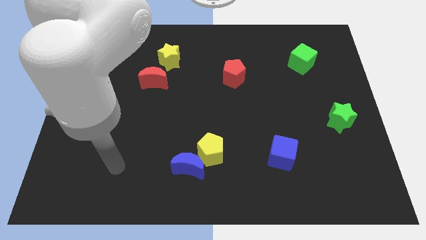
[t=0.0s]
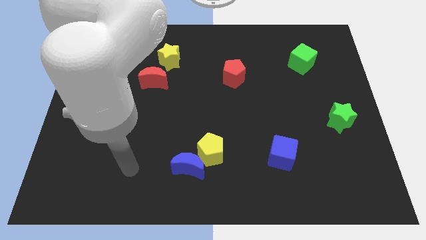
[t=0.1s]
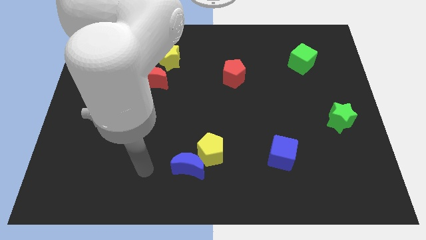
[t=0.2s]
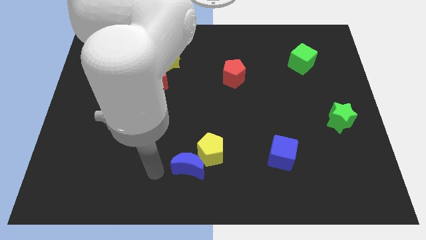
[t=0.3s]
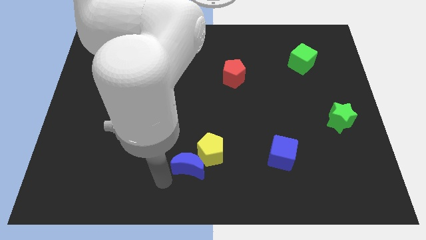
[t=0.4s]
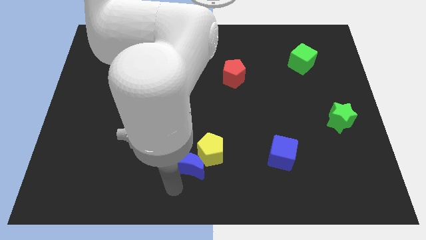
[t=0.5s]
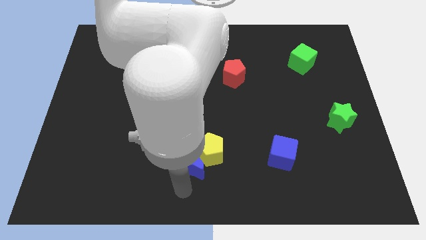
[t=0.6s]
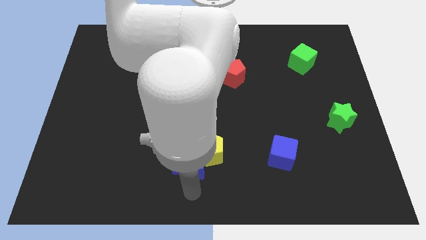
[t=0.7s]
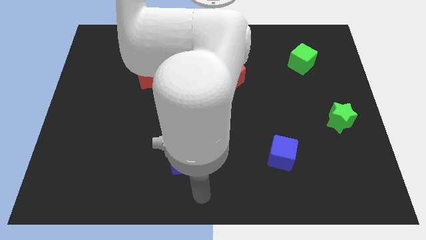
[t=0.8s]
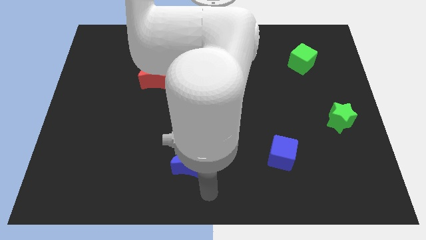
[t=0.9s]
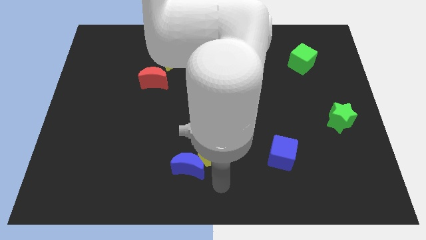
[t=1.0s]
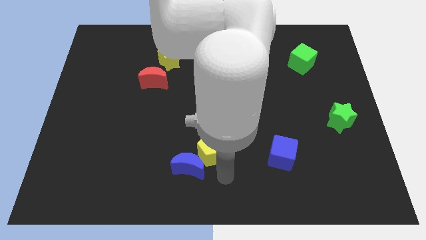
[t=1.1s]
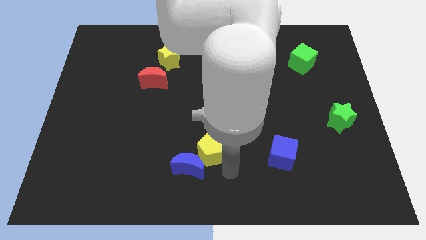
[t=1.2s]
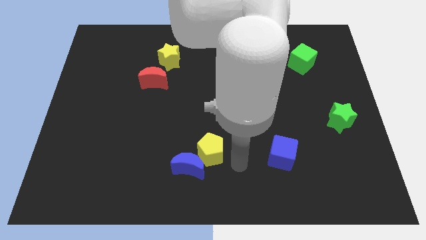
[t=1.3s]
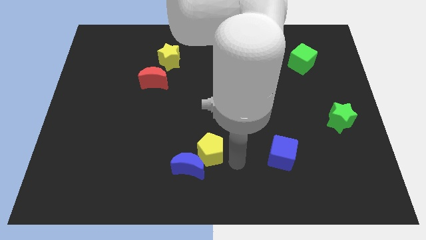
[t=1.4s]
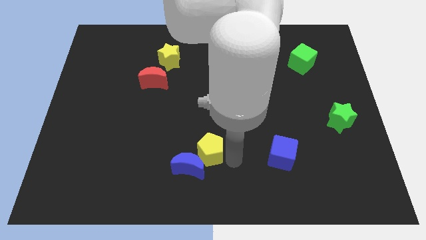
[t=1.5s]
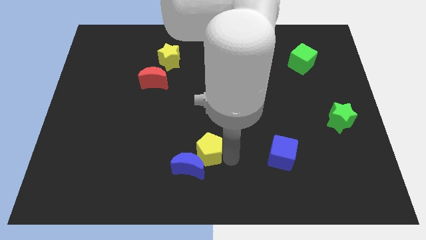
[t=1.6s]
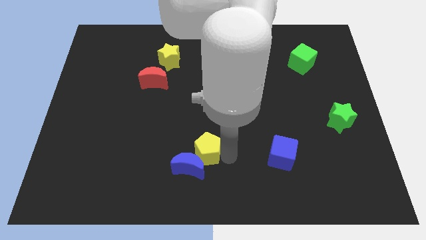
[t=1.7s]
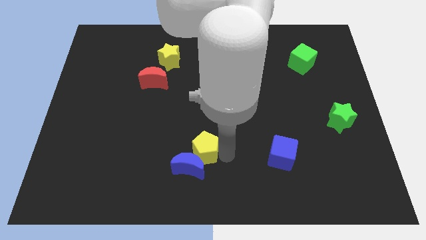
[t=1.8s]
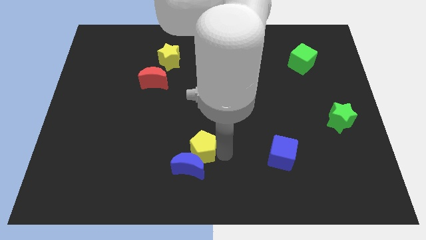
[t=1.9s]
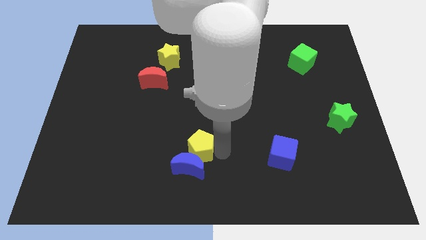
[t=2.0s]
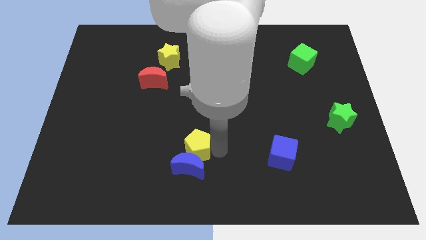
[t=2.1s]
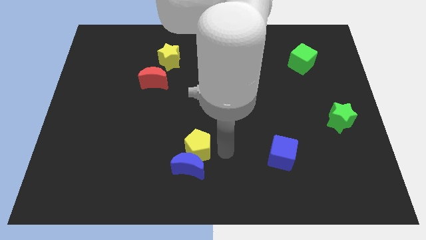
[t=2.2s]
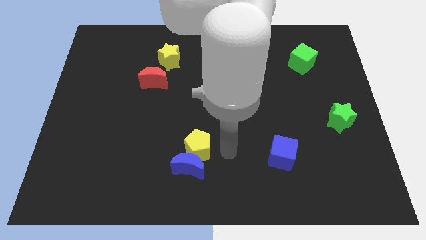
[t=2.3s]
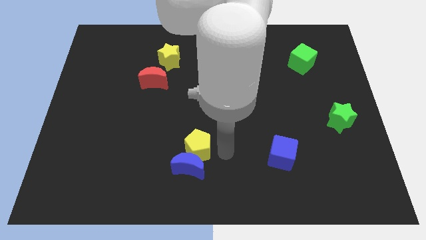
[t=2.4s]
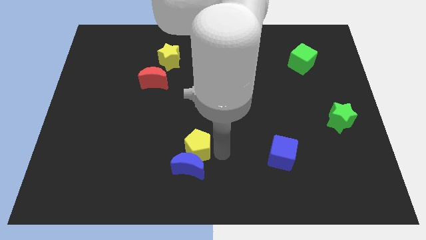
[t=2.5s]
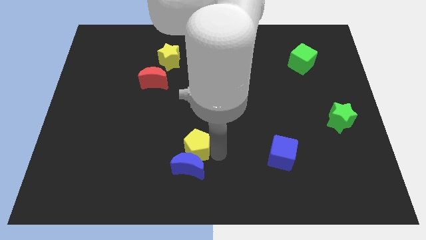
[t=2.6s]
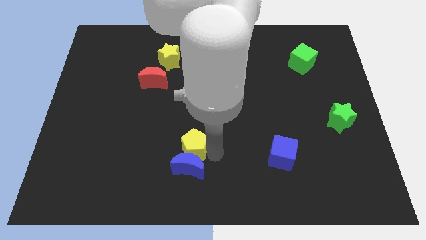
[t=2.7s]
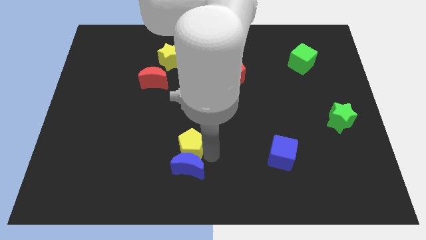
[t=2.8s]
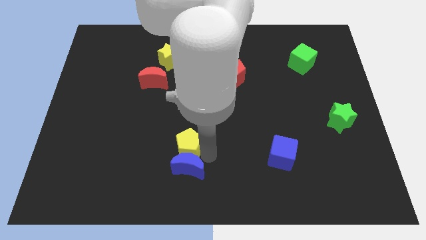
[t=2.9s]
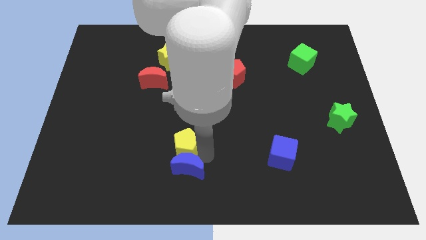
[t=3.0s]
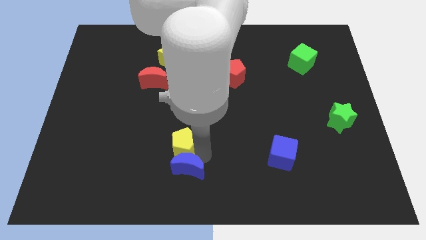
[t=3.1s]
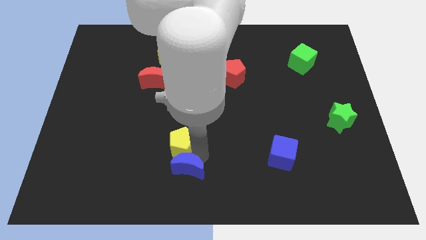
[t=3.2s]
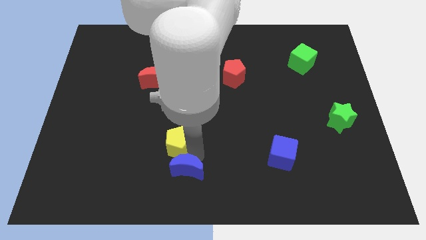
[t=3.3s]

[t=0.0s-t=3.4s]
slightly move the yellow pentagon left

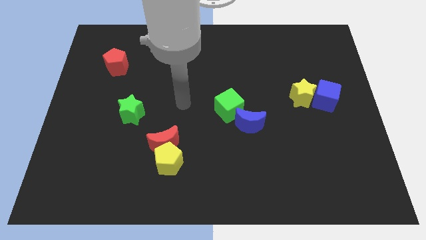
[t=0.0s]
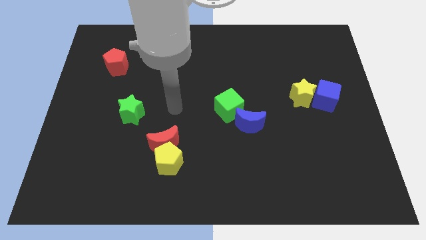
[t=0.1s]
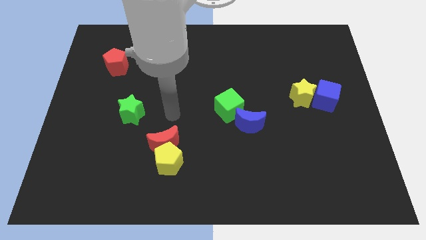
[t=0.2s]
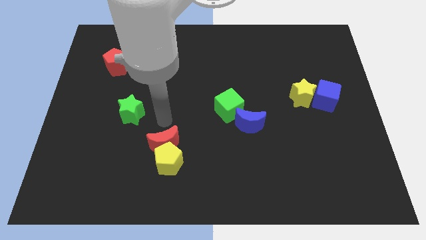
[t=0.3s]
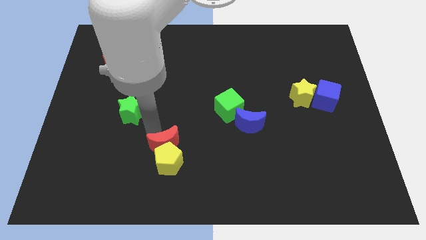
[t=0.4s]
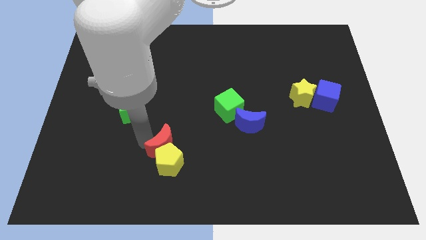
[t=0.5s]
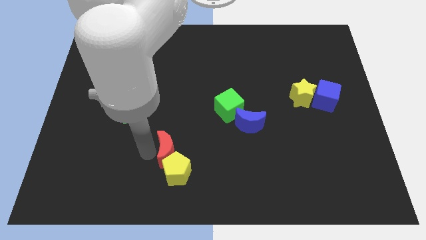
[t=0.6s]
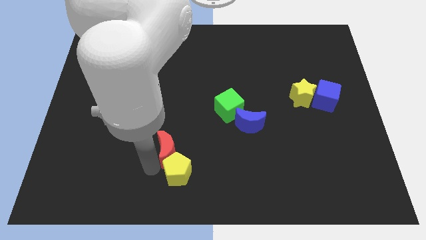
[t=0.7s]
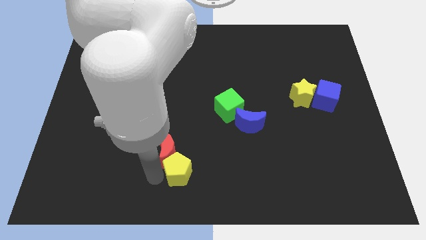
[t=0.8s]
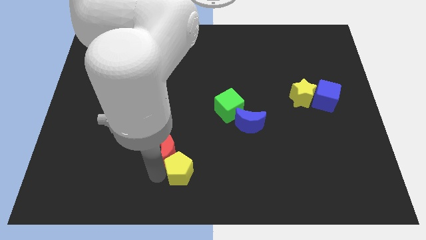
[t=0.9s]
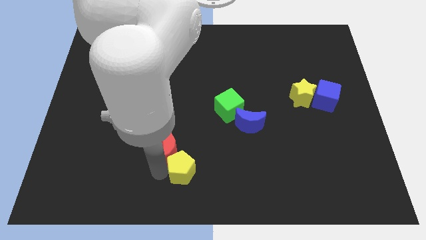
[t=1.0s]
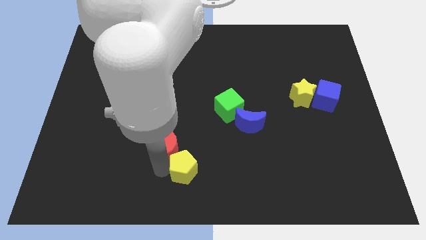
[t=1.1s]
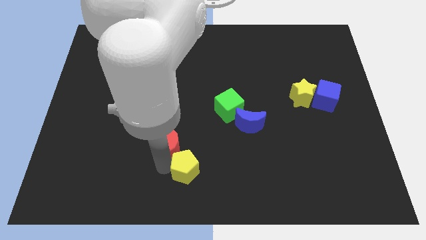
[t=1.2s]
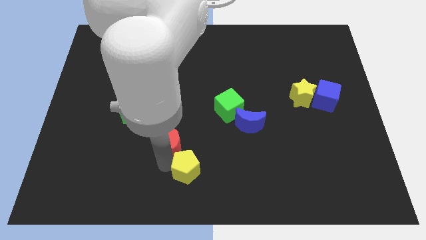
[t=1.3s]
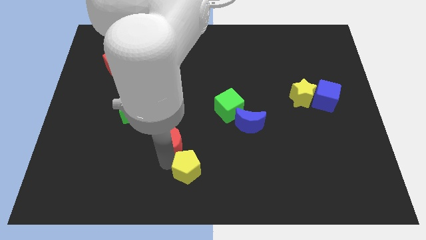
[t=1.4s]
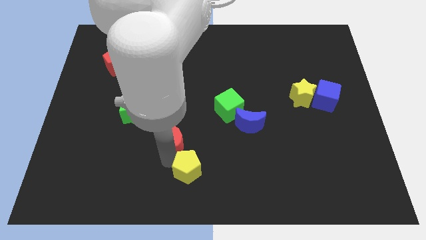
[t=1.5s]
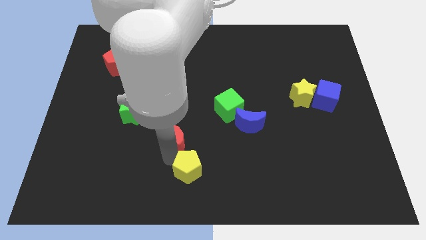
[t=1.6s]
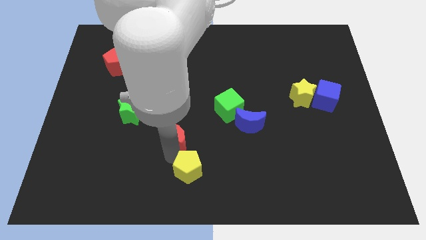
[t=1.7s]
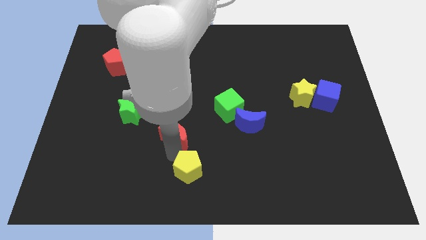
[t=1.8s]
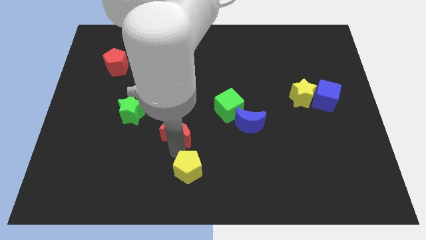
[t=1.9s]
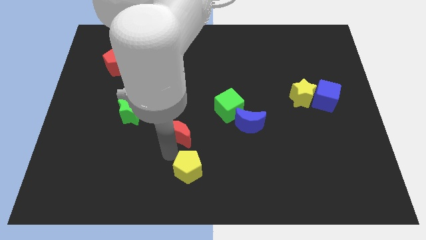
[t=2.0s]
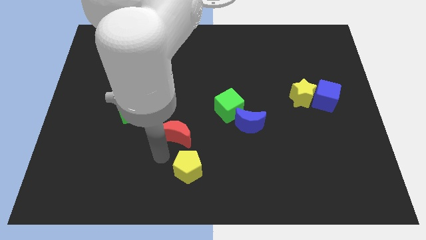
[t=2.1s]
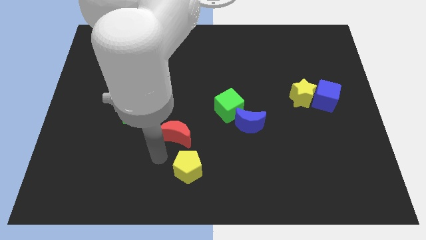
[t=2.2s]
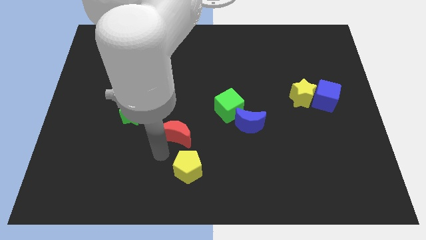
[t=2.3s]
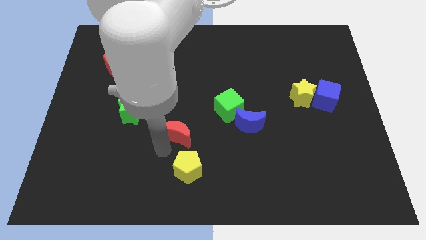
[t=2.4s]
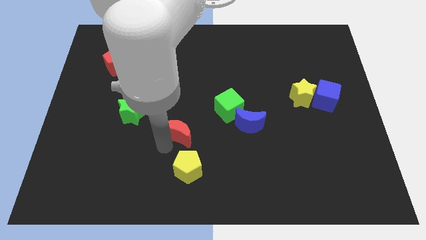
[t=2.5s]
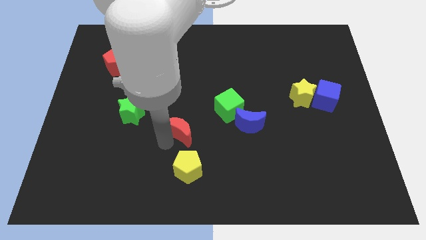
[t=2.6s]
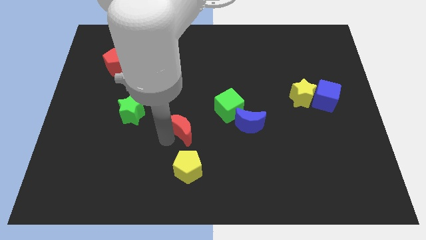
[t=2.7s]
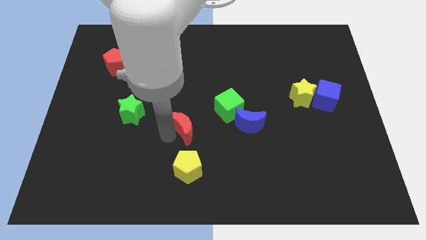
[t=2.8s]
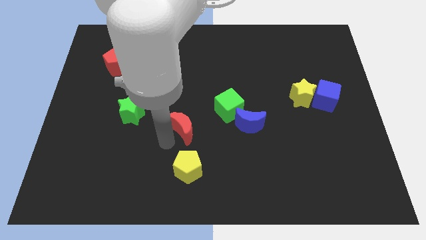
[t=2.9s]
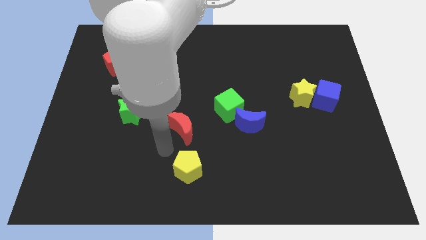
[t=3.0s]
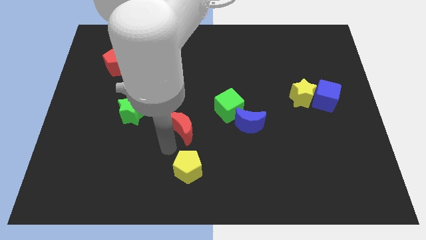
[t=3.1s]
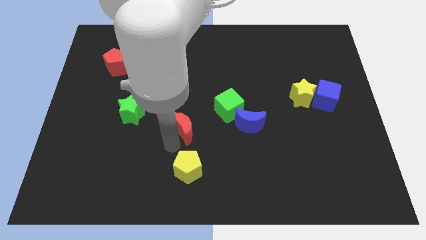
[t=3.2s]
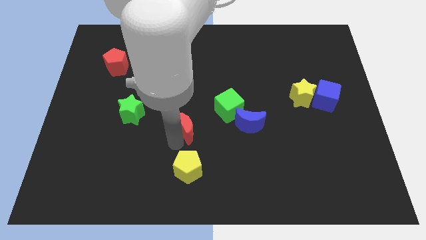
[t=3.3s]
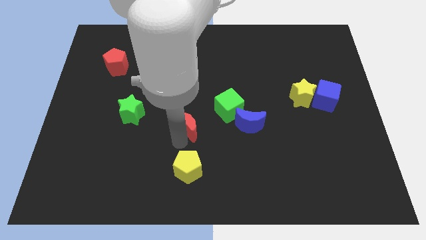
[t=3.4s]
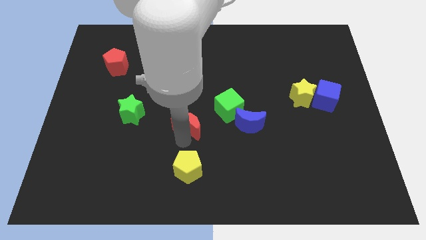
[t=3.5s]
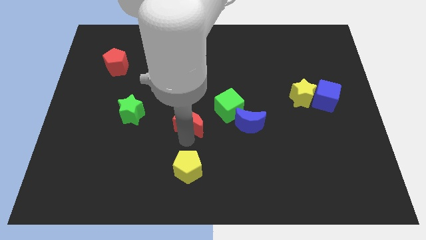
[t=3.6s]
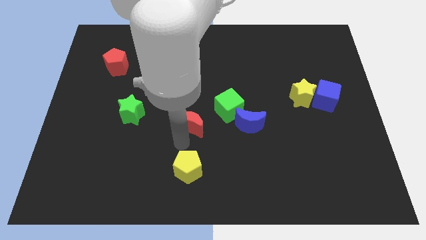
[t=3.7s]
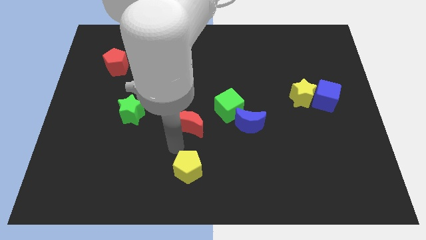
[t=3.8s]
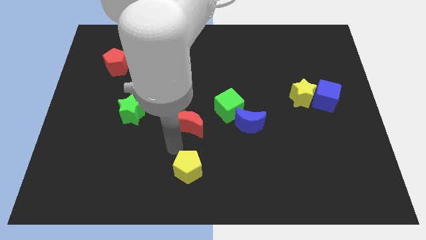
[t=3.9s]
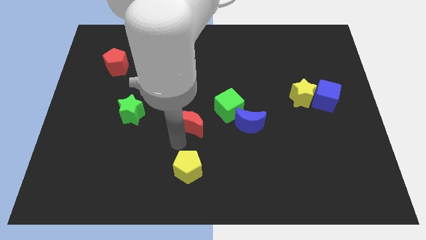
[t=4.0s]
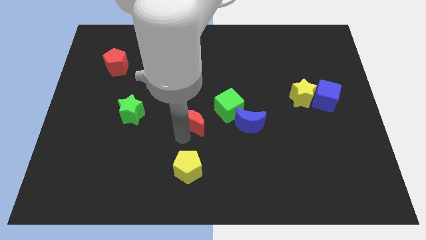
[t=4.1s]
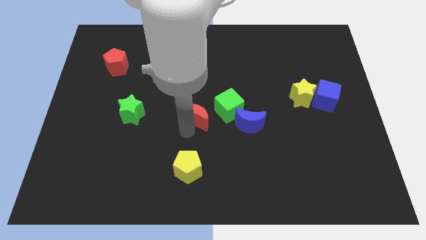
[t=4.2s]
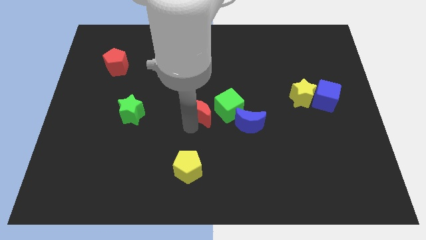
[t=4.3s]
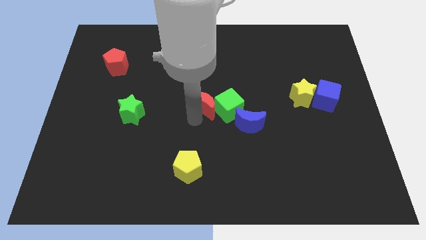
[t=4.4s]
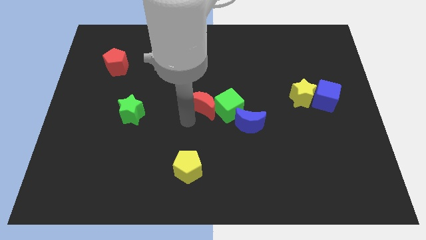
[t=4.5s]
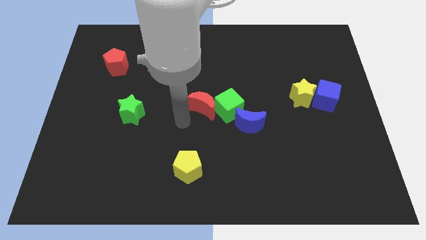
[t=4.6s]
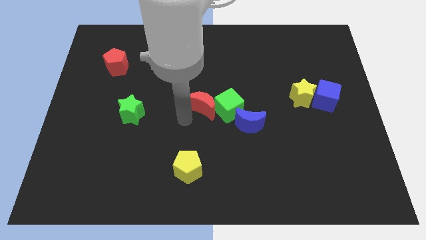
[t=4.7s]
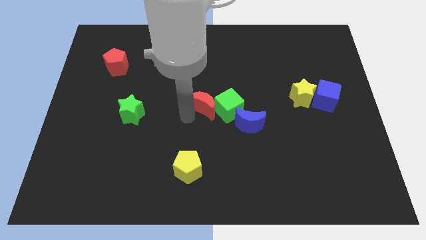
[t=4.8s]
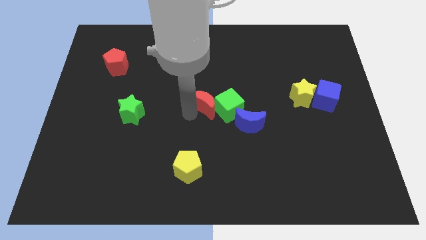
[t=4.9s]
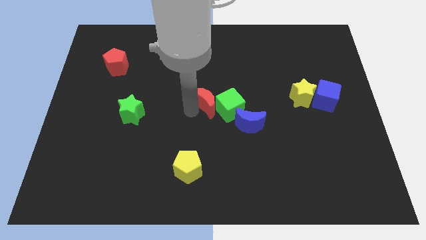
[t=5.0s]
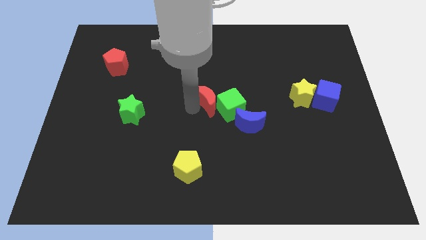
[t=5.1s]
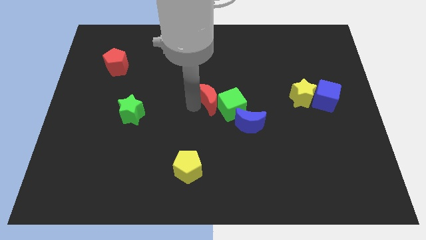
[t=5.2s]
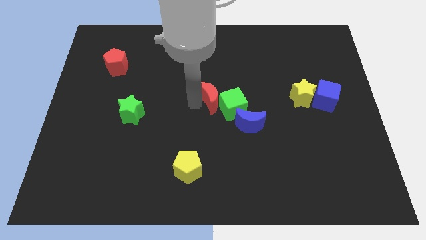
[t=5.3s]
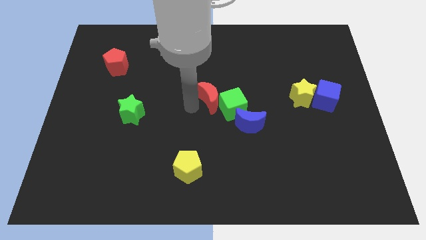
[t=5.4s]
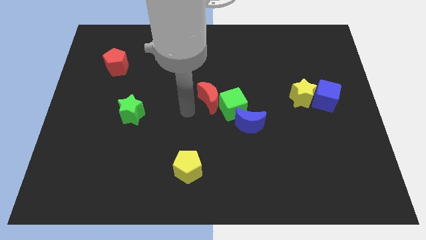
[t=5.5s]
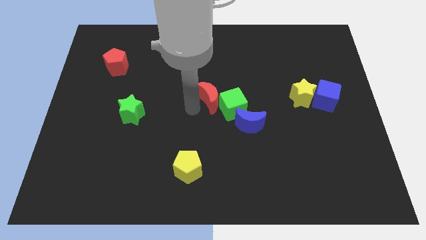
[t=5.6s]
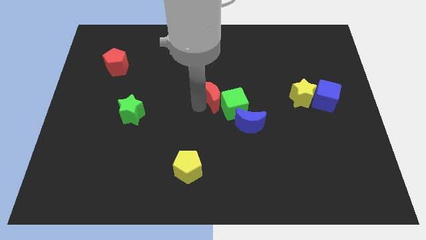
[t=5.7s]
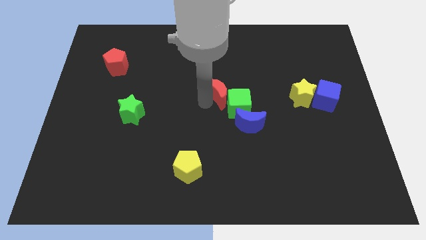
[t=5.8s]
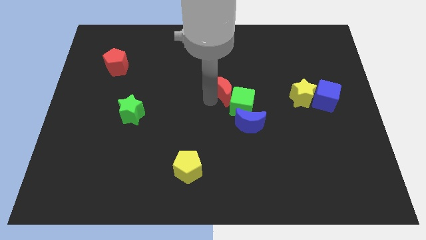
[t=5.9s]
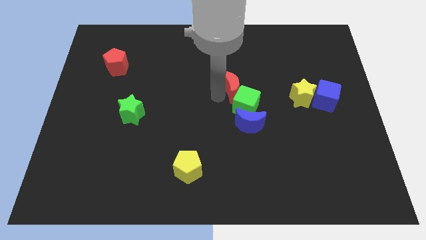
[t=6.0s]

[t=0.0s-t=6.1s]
push the red moon diagonally upwards and to the right
